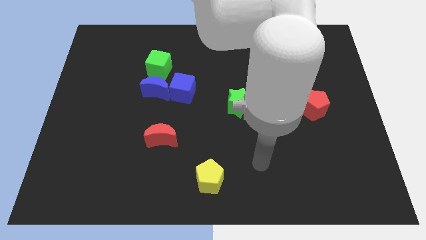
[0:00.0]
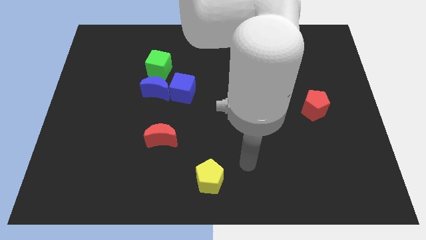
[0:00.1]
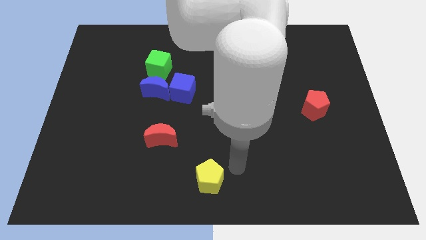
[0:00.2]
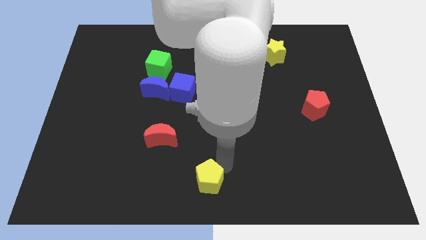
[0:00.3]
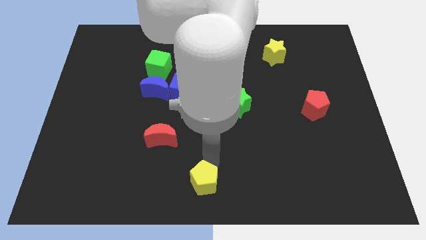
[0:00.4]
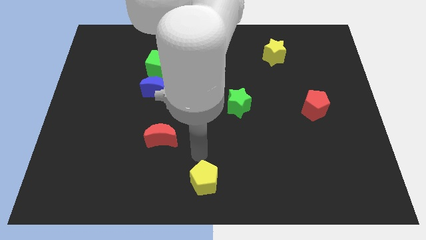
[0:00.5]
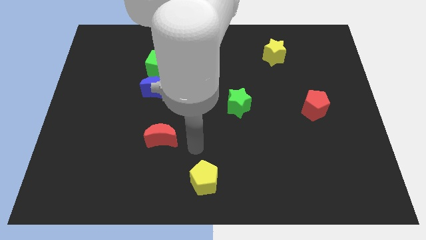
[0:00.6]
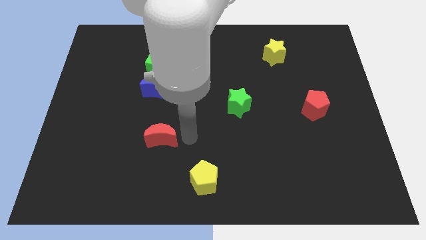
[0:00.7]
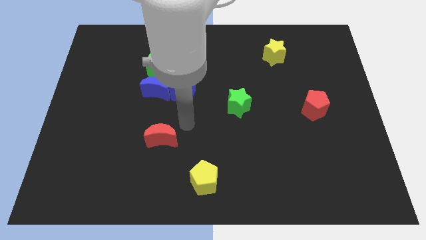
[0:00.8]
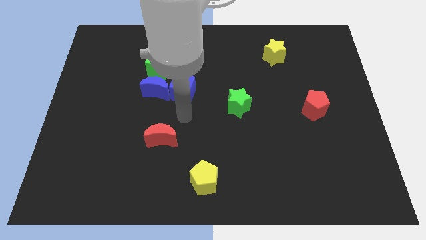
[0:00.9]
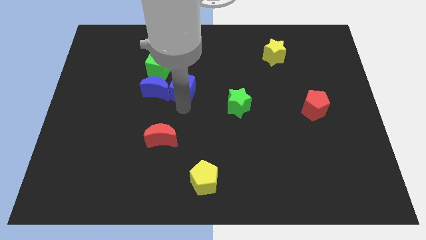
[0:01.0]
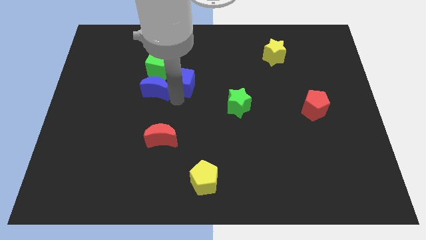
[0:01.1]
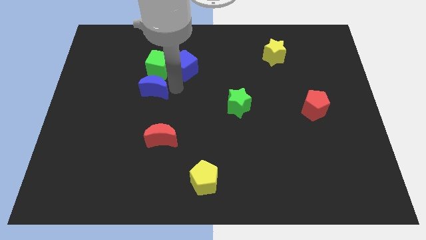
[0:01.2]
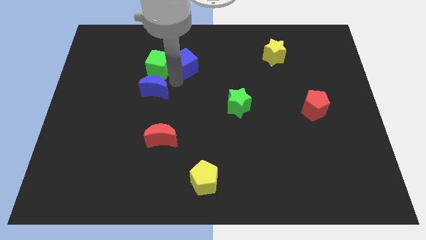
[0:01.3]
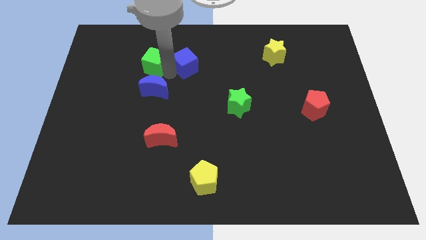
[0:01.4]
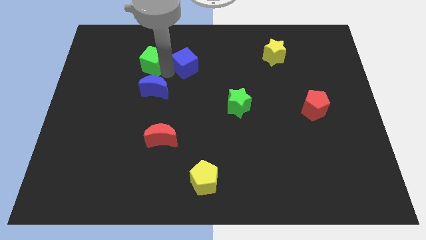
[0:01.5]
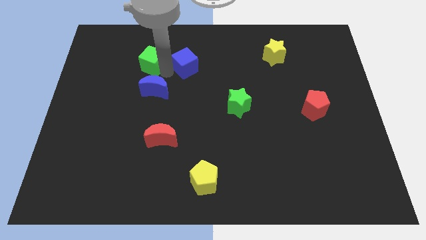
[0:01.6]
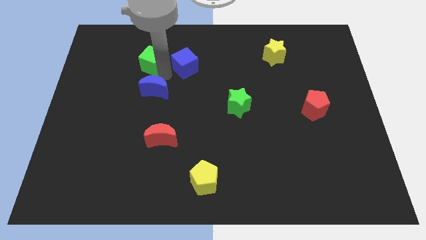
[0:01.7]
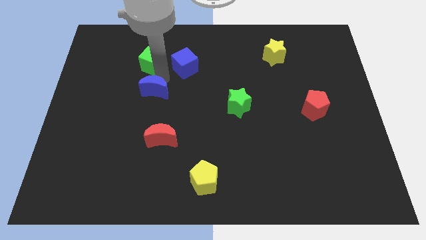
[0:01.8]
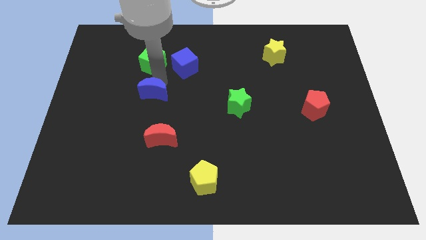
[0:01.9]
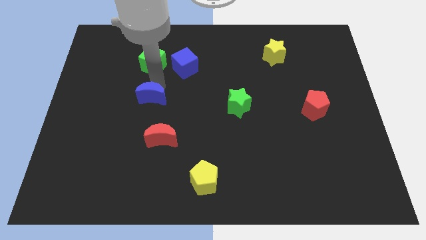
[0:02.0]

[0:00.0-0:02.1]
move the blue moon away from the blue cube and green cube

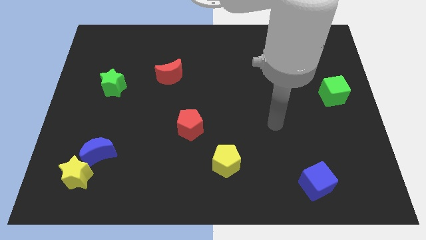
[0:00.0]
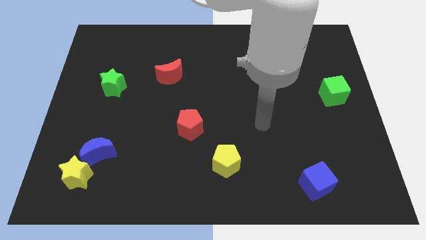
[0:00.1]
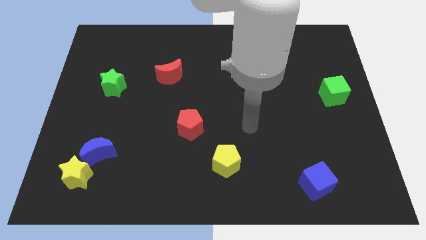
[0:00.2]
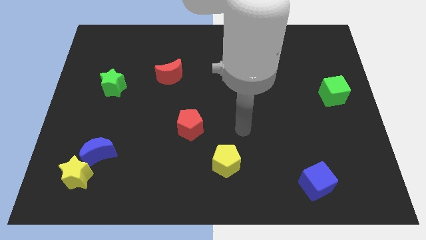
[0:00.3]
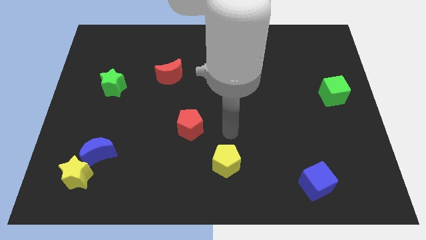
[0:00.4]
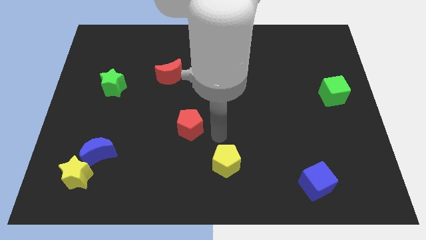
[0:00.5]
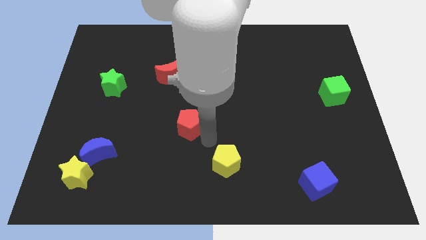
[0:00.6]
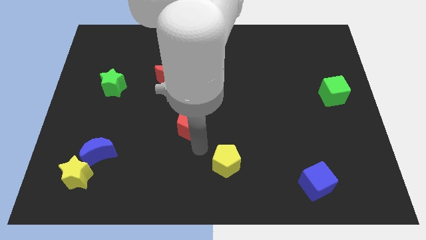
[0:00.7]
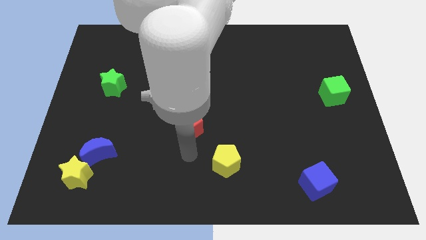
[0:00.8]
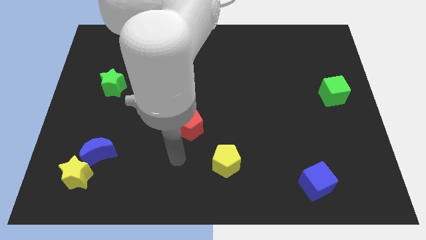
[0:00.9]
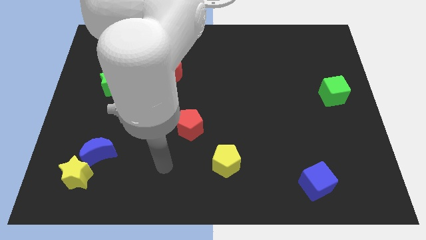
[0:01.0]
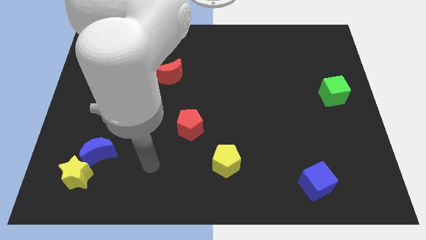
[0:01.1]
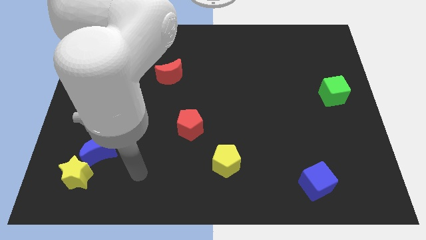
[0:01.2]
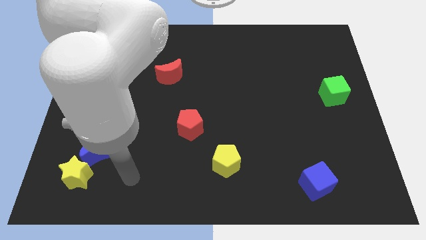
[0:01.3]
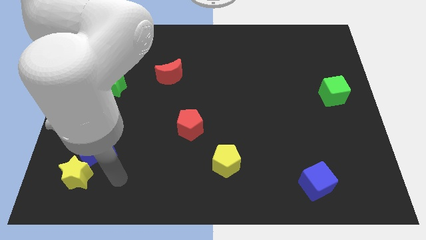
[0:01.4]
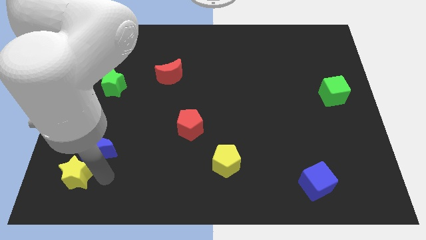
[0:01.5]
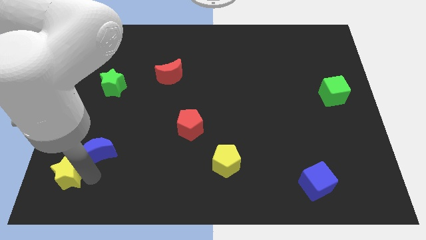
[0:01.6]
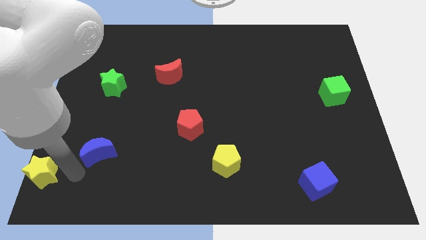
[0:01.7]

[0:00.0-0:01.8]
pull the blue moon apart from the yellow star

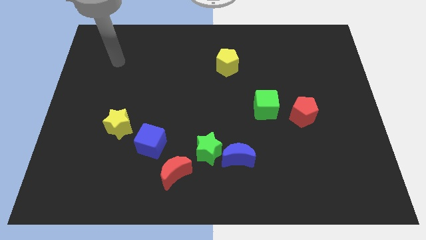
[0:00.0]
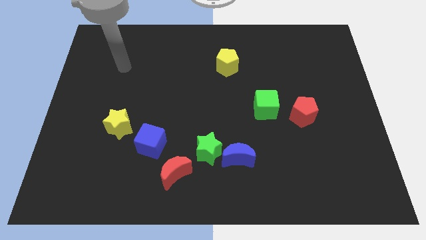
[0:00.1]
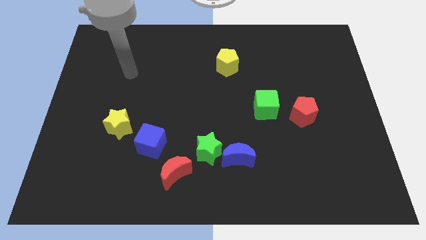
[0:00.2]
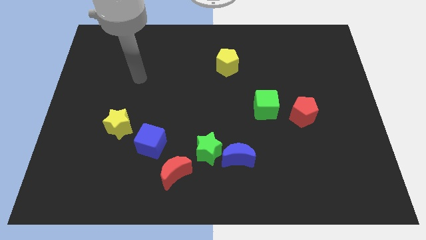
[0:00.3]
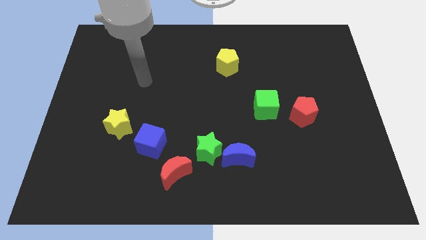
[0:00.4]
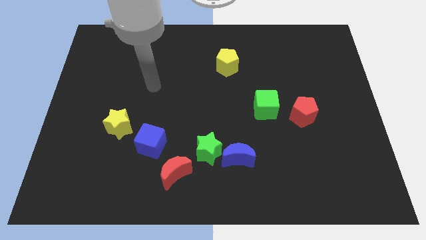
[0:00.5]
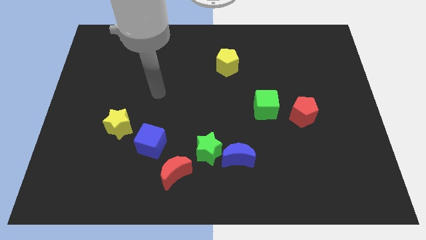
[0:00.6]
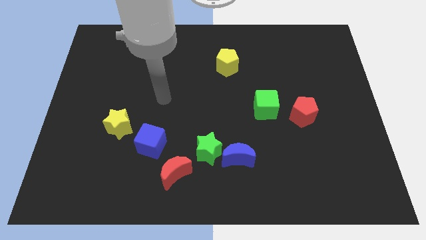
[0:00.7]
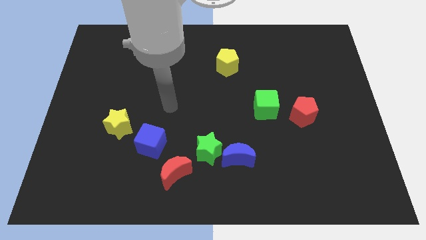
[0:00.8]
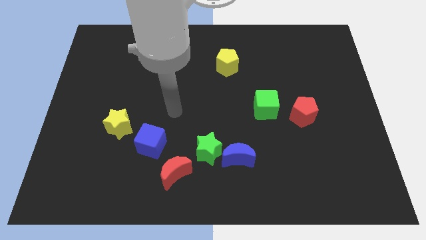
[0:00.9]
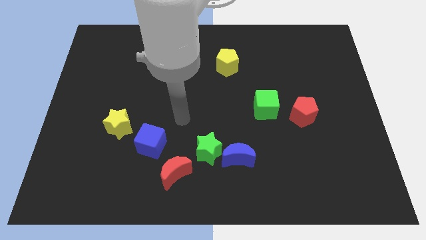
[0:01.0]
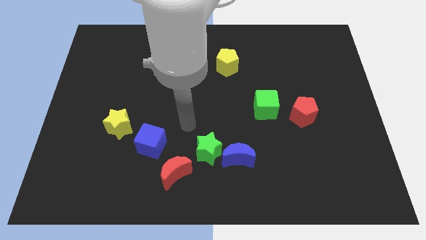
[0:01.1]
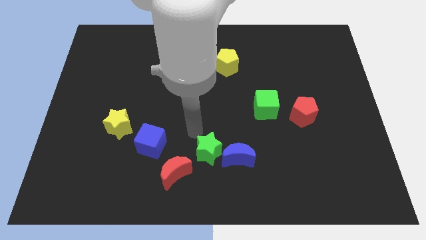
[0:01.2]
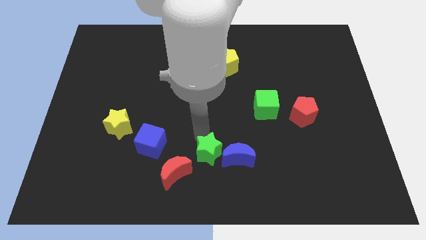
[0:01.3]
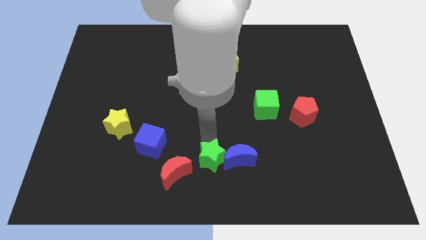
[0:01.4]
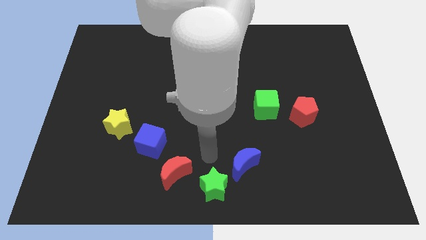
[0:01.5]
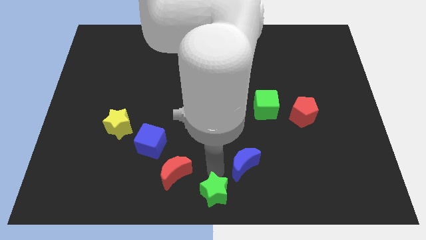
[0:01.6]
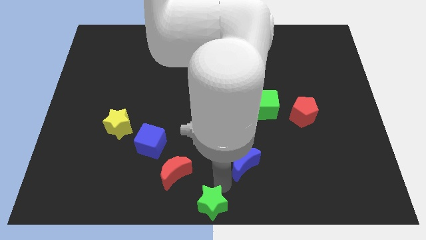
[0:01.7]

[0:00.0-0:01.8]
pull the blue moon apart from the green star

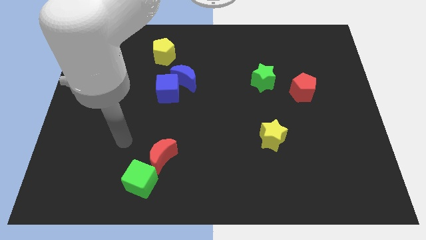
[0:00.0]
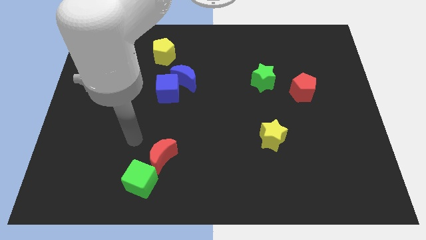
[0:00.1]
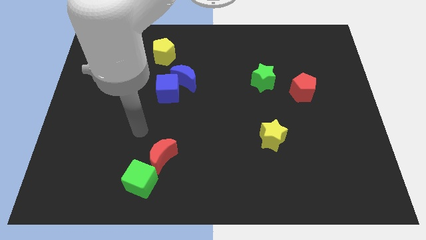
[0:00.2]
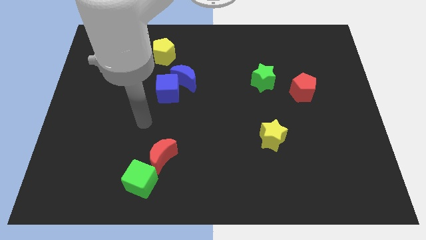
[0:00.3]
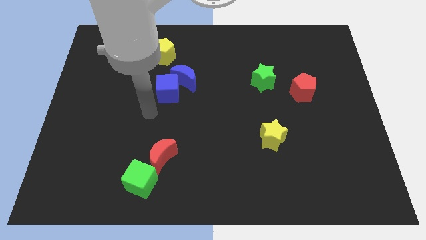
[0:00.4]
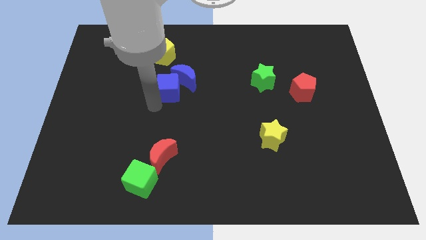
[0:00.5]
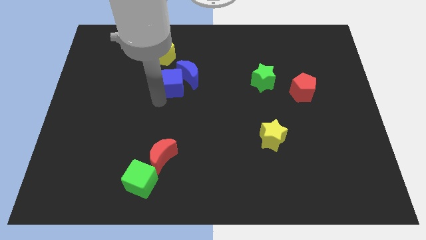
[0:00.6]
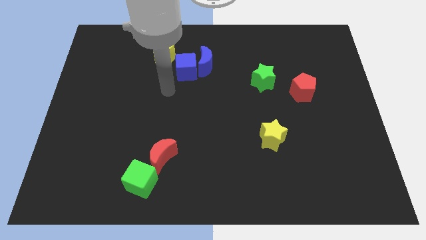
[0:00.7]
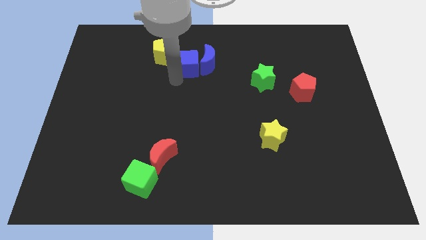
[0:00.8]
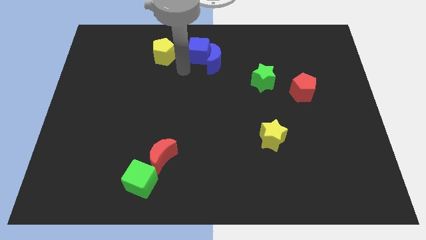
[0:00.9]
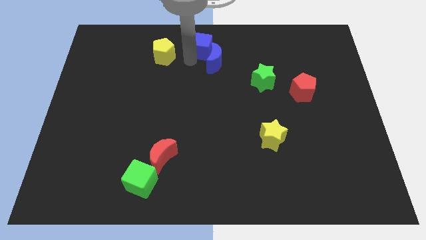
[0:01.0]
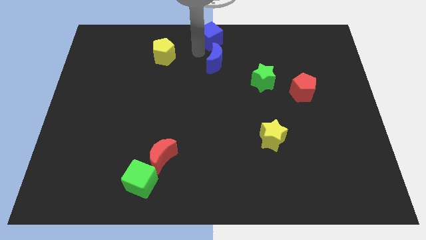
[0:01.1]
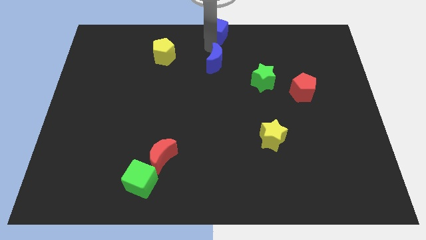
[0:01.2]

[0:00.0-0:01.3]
separate the blue moon from the blue cube

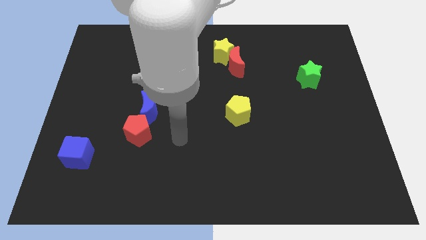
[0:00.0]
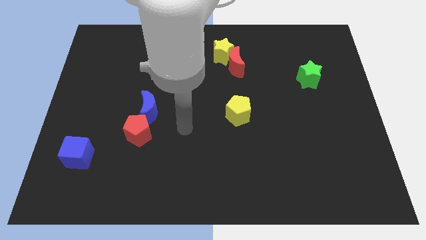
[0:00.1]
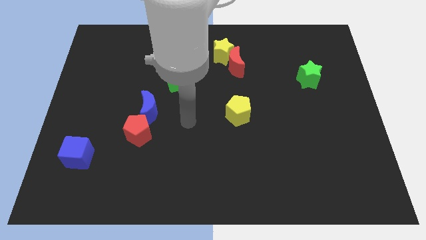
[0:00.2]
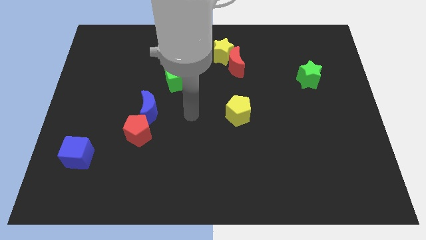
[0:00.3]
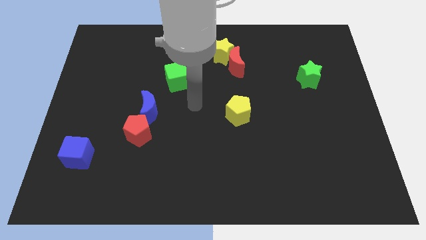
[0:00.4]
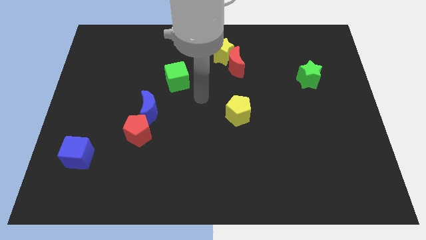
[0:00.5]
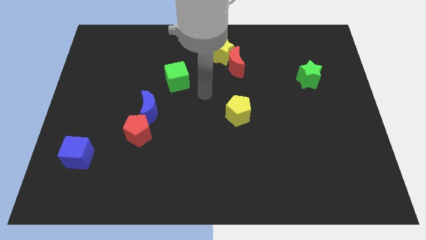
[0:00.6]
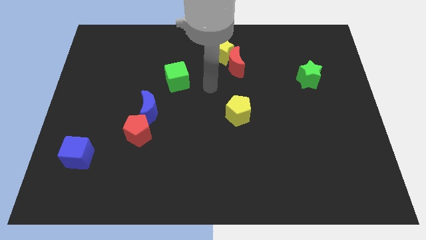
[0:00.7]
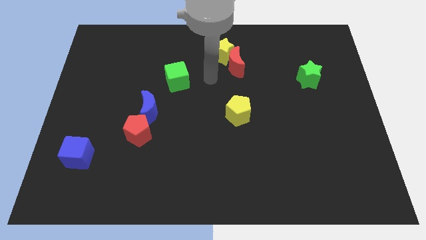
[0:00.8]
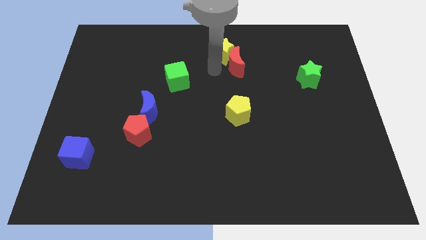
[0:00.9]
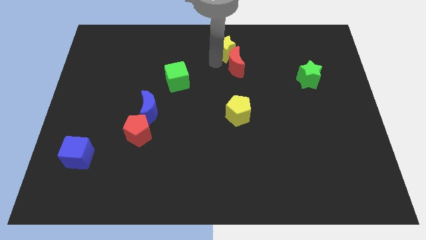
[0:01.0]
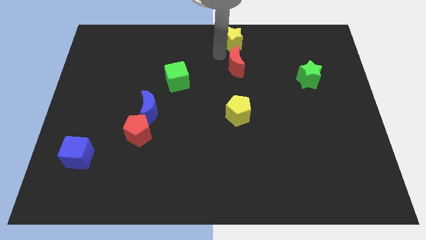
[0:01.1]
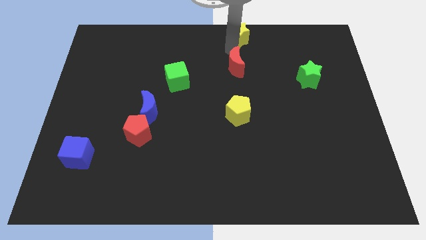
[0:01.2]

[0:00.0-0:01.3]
move the red moon away from the yellow star

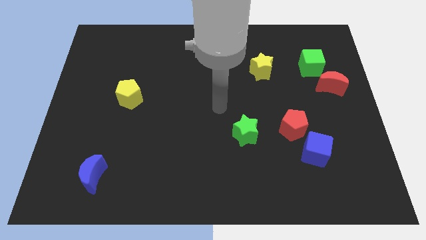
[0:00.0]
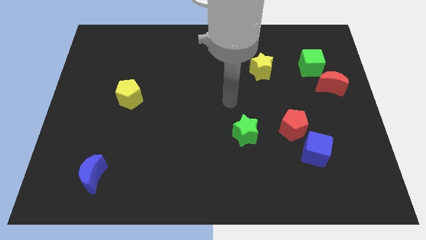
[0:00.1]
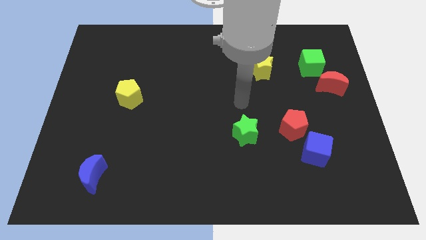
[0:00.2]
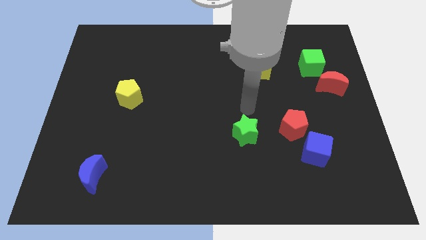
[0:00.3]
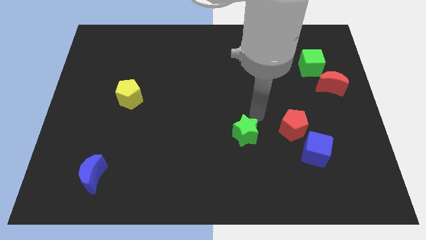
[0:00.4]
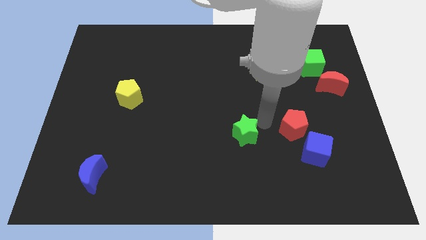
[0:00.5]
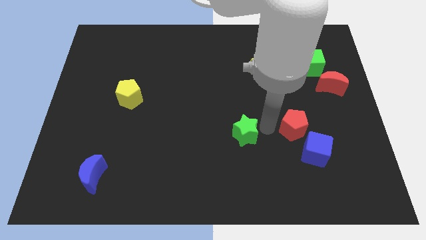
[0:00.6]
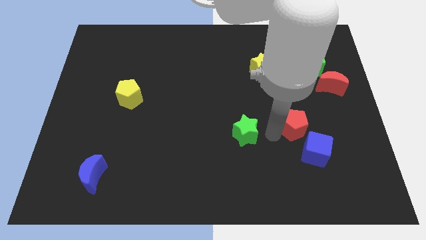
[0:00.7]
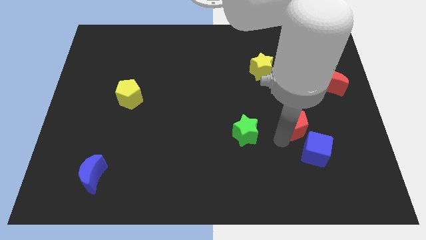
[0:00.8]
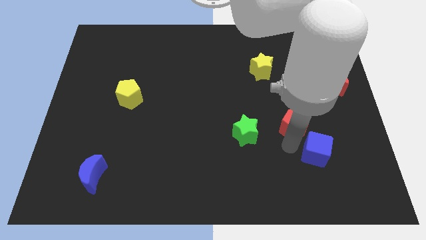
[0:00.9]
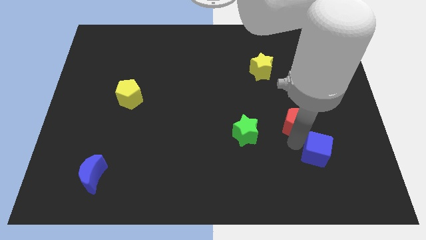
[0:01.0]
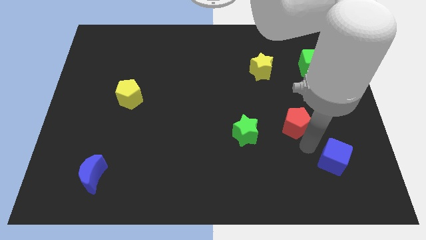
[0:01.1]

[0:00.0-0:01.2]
move the red pentagon away from the blue cube
